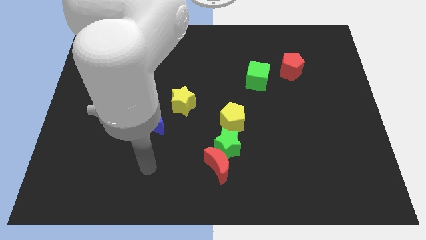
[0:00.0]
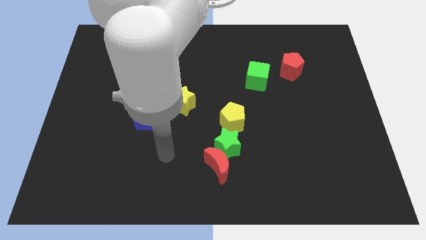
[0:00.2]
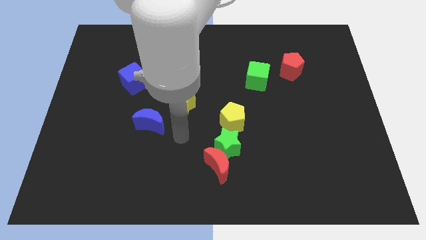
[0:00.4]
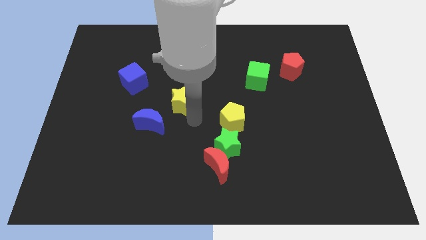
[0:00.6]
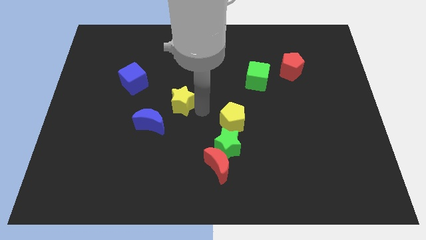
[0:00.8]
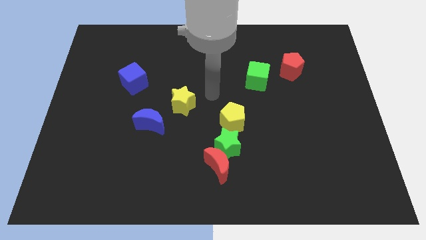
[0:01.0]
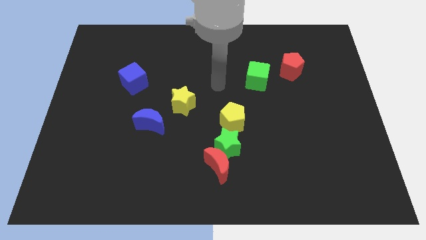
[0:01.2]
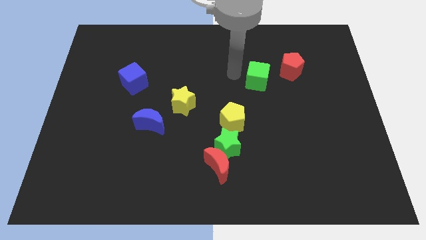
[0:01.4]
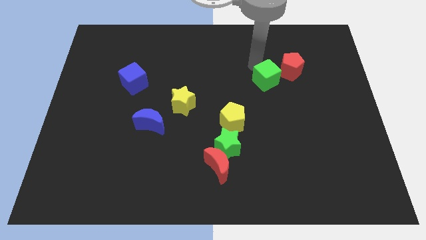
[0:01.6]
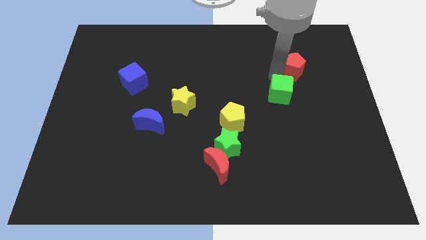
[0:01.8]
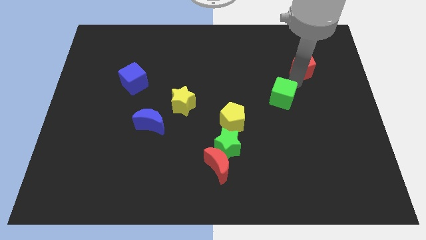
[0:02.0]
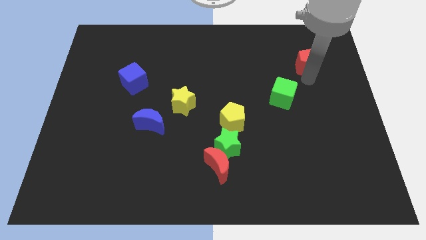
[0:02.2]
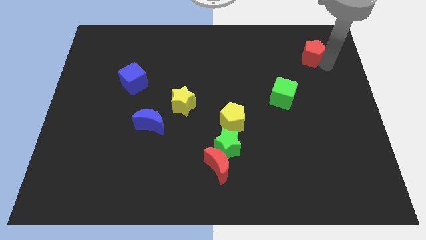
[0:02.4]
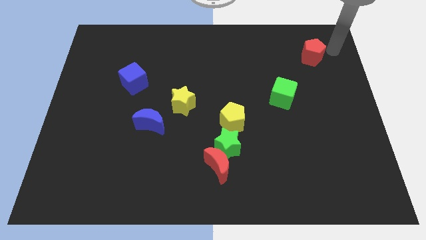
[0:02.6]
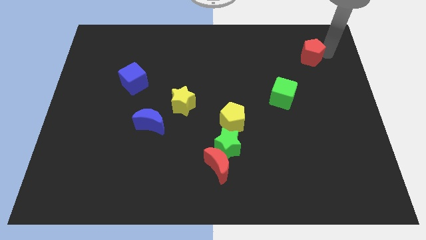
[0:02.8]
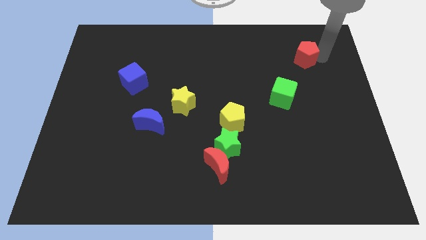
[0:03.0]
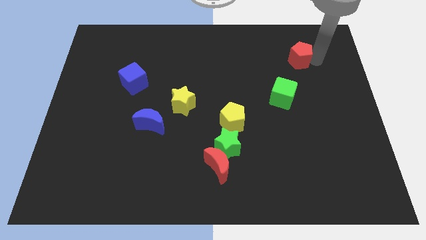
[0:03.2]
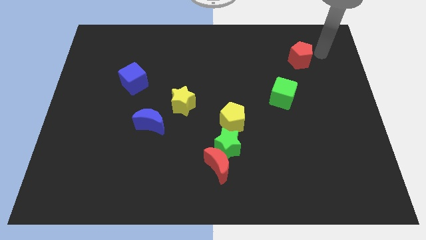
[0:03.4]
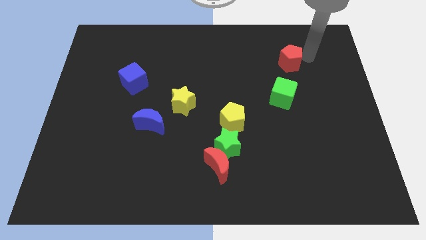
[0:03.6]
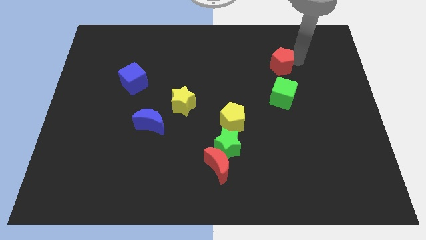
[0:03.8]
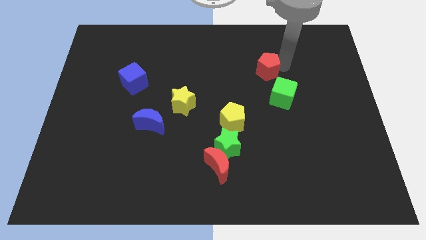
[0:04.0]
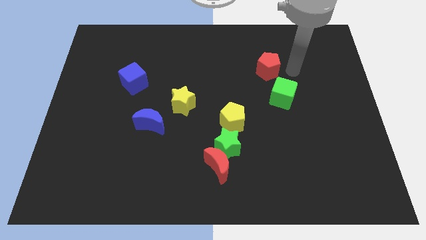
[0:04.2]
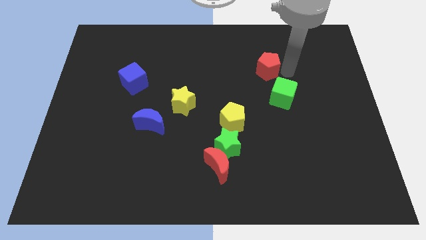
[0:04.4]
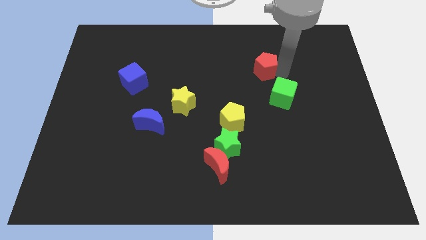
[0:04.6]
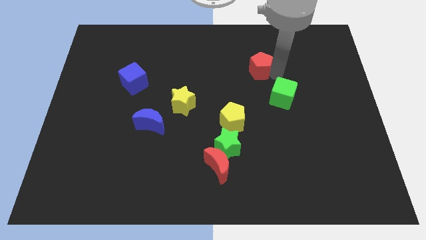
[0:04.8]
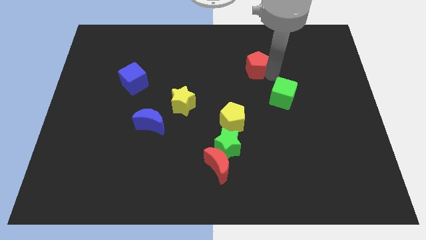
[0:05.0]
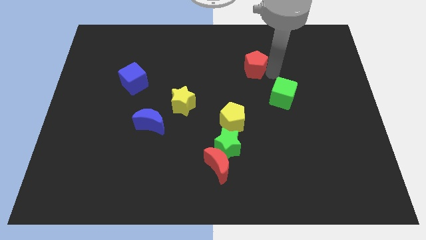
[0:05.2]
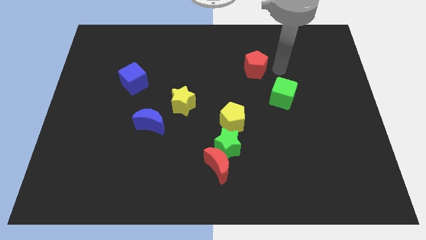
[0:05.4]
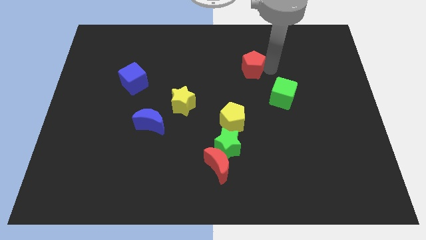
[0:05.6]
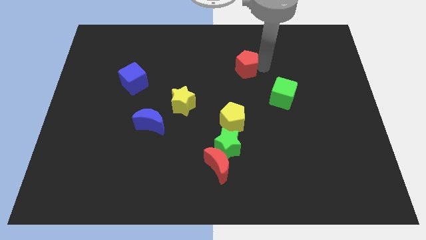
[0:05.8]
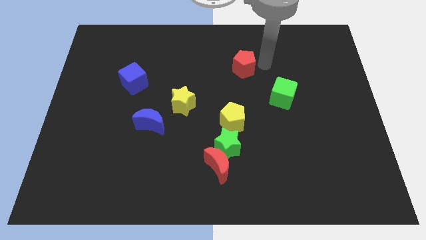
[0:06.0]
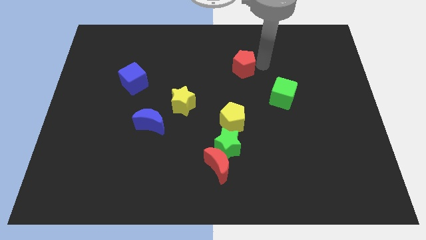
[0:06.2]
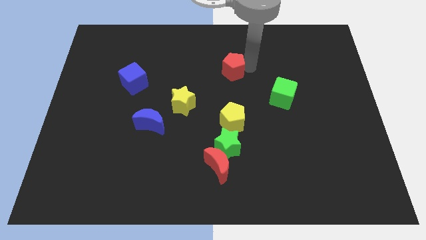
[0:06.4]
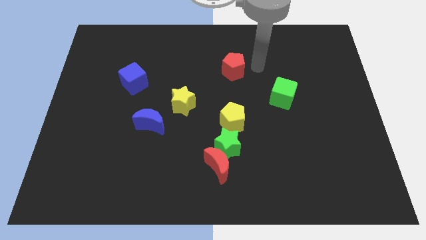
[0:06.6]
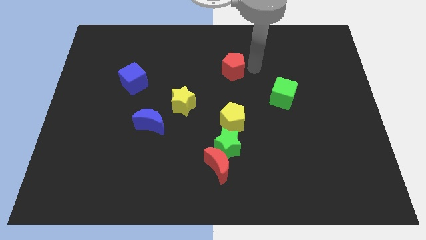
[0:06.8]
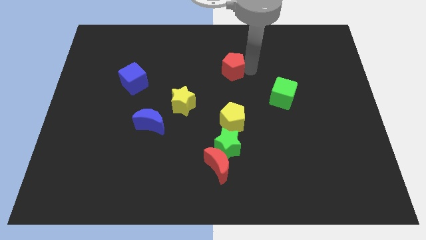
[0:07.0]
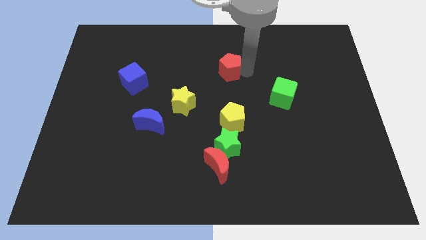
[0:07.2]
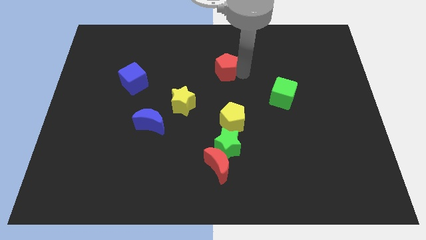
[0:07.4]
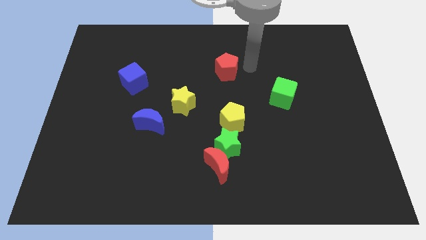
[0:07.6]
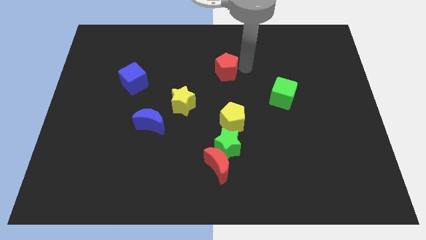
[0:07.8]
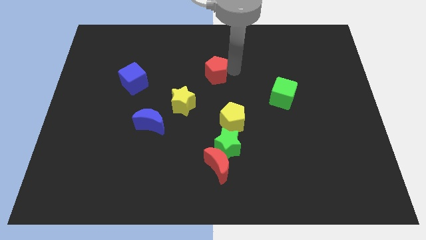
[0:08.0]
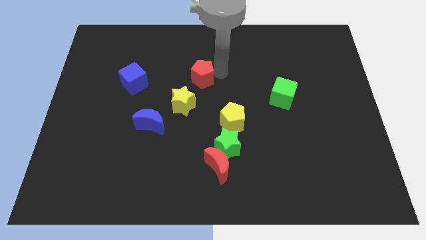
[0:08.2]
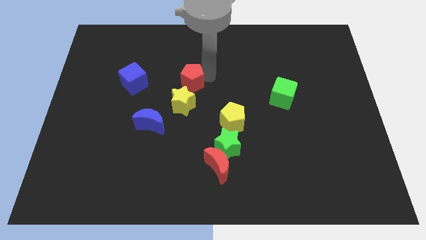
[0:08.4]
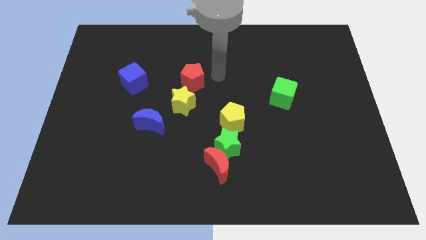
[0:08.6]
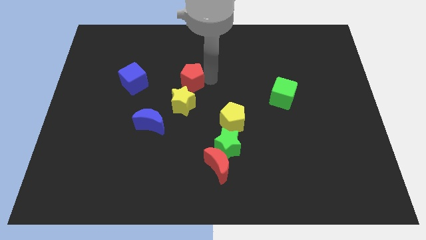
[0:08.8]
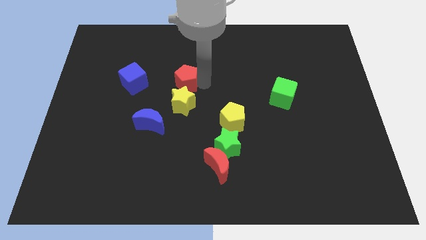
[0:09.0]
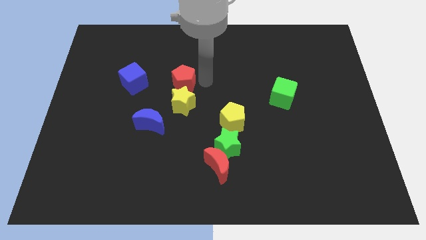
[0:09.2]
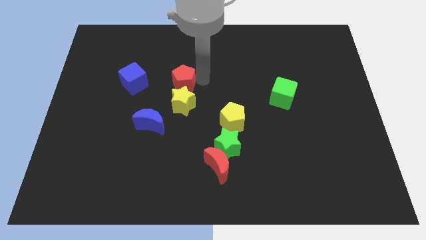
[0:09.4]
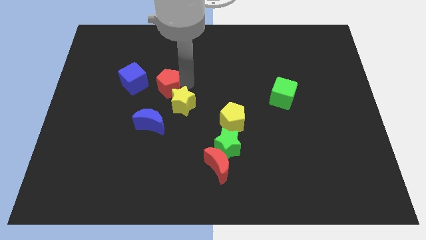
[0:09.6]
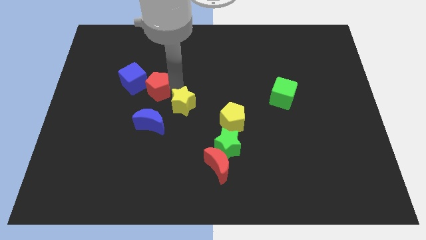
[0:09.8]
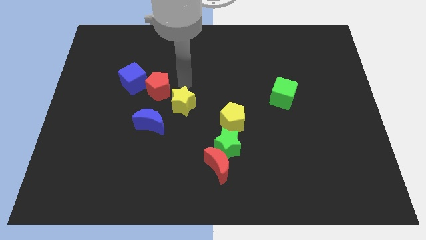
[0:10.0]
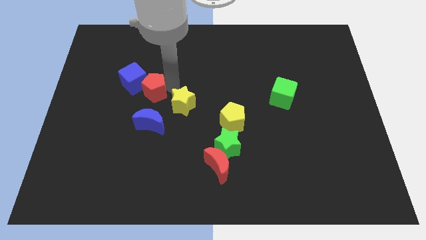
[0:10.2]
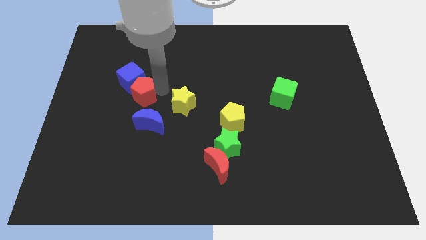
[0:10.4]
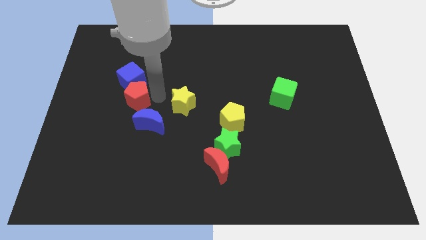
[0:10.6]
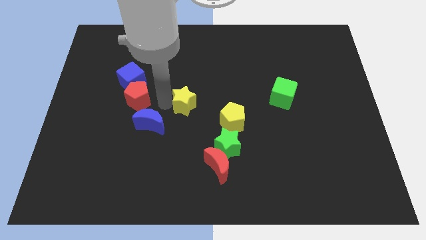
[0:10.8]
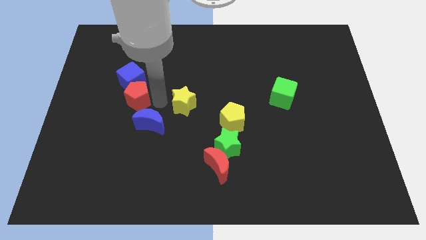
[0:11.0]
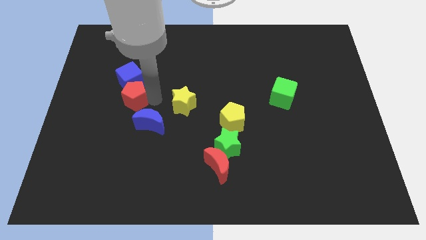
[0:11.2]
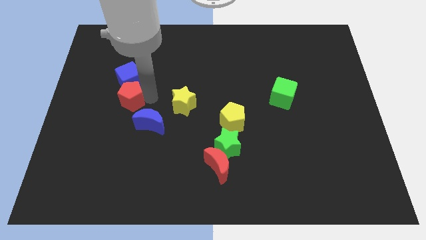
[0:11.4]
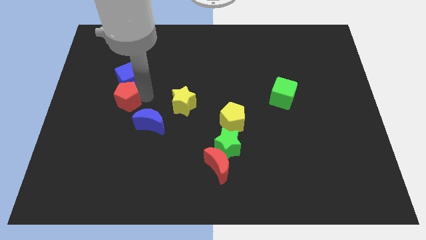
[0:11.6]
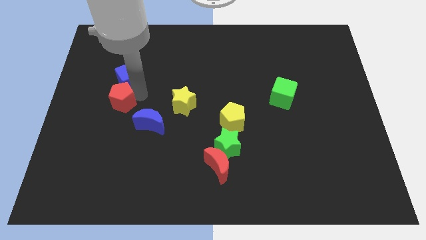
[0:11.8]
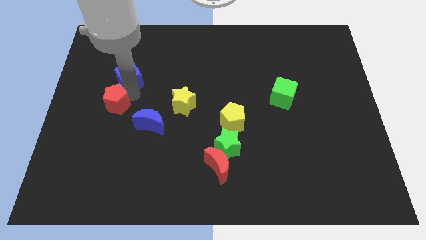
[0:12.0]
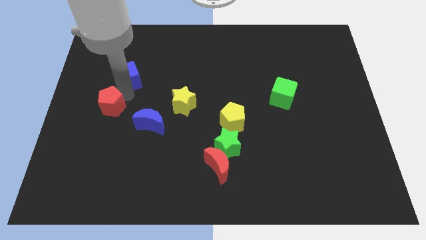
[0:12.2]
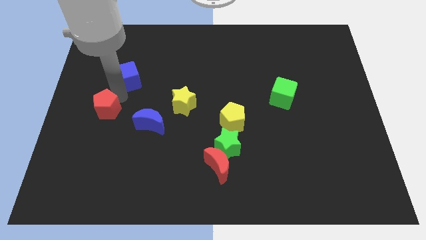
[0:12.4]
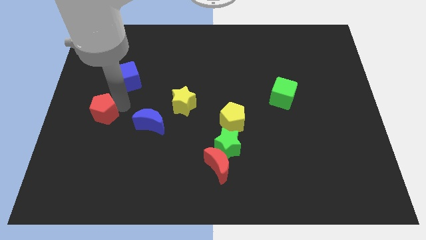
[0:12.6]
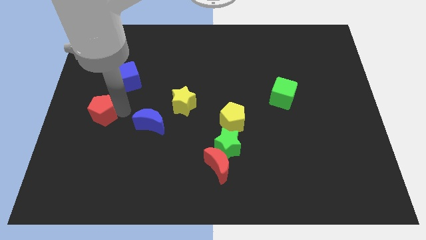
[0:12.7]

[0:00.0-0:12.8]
move the red pentagon to the center left

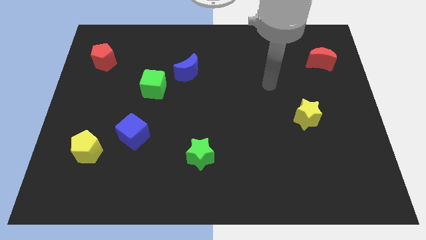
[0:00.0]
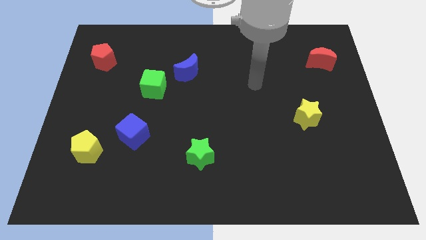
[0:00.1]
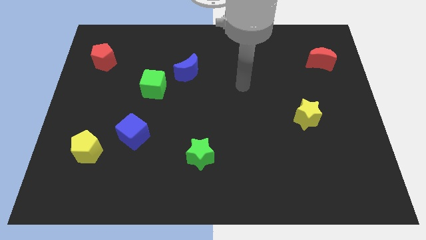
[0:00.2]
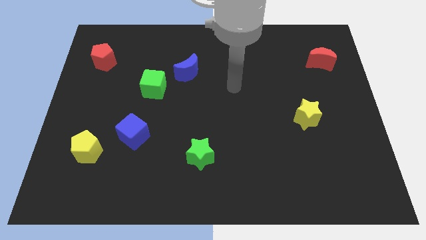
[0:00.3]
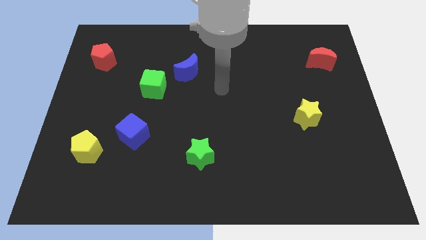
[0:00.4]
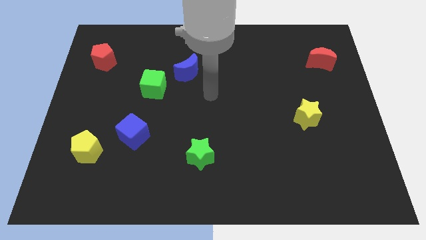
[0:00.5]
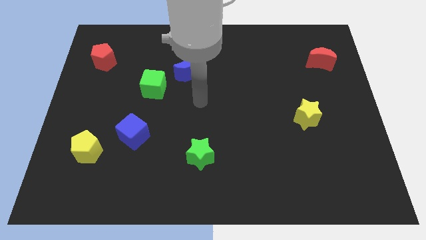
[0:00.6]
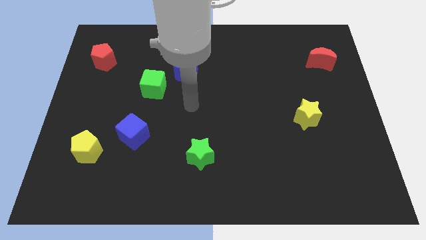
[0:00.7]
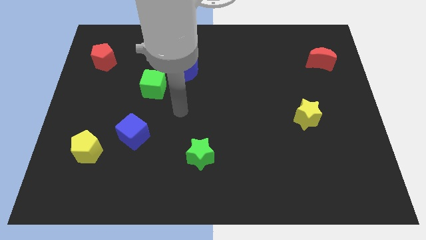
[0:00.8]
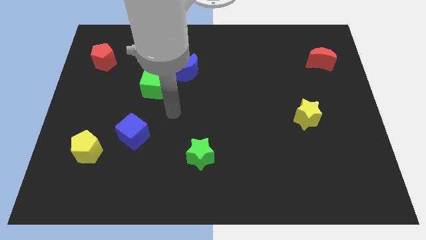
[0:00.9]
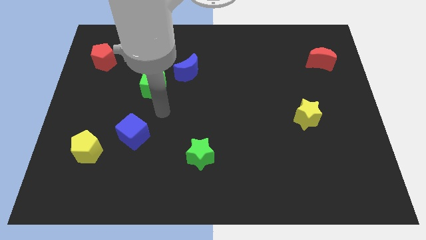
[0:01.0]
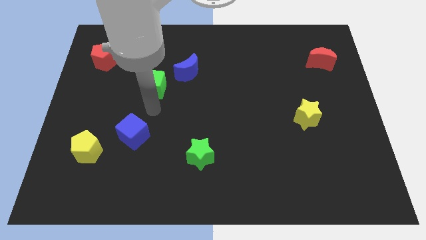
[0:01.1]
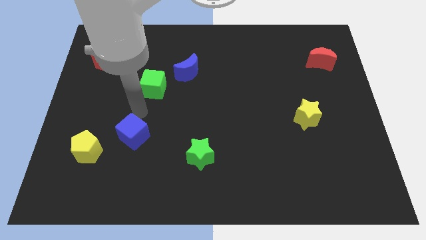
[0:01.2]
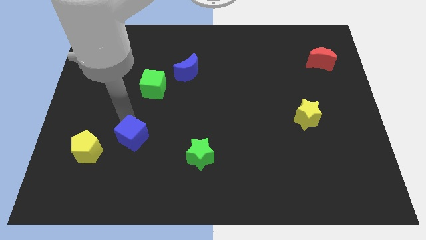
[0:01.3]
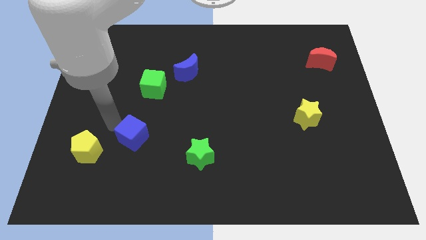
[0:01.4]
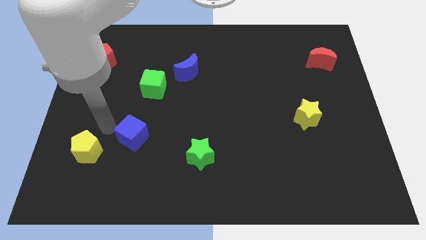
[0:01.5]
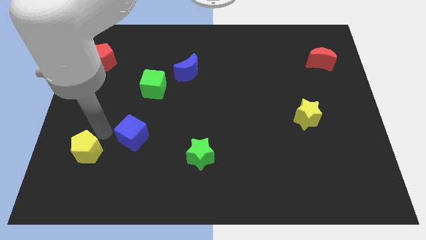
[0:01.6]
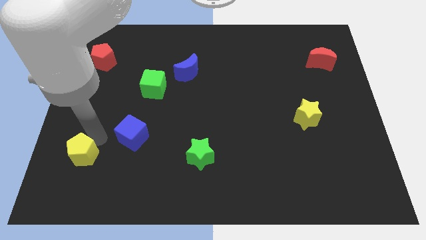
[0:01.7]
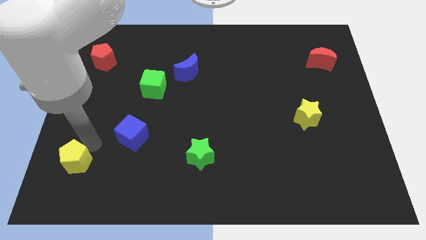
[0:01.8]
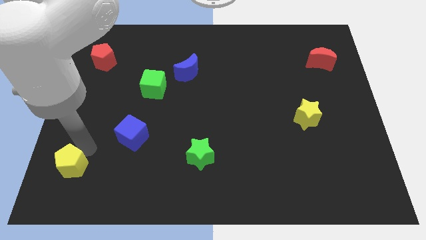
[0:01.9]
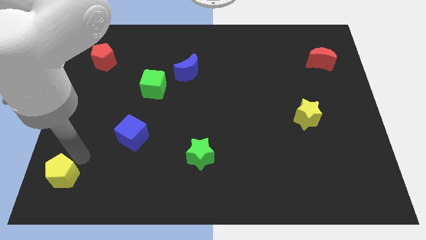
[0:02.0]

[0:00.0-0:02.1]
put the yellow pentagon to the lower left corner
